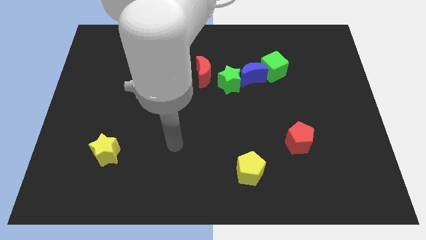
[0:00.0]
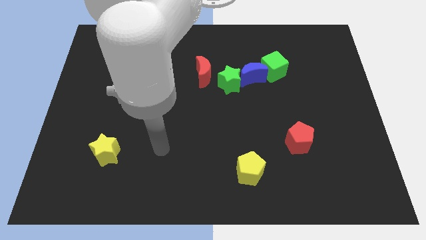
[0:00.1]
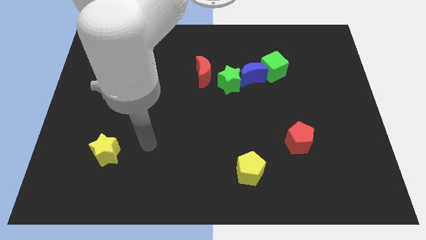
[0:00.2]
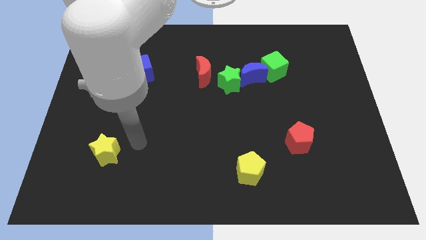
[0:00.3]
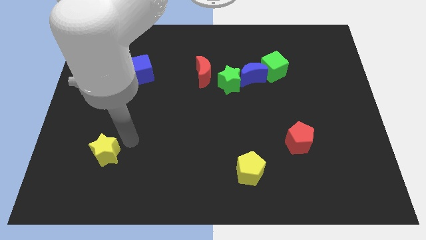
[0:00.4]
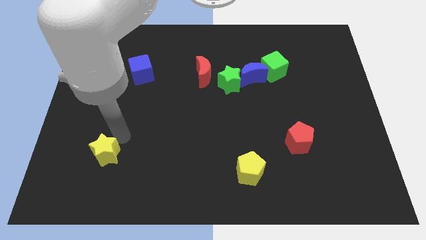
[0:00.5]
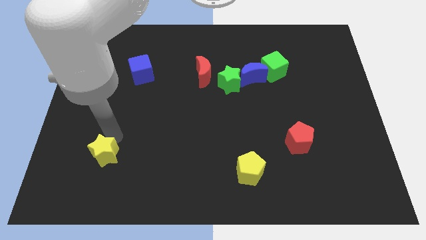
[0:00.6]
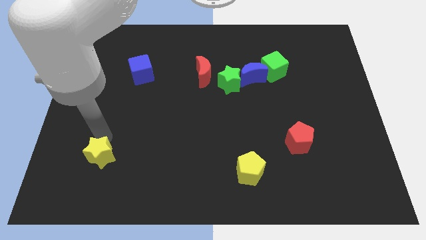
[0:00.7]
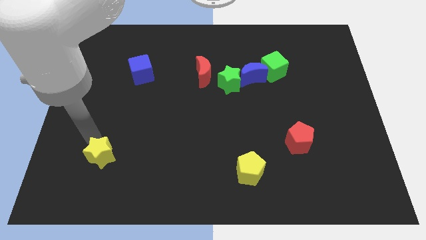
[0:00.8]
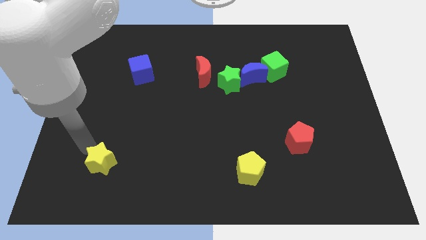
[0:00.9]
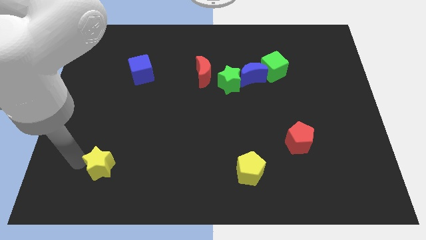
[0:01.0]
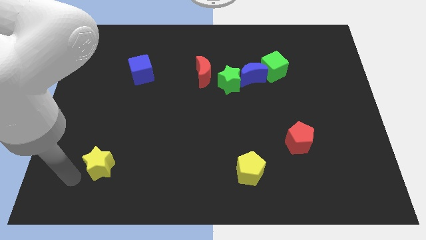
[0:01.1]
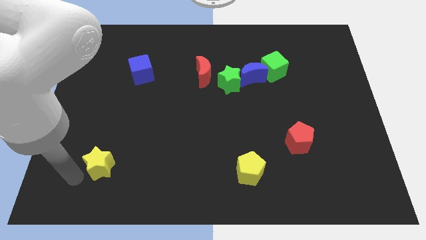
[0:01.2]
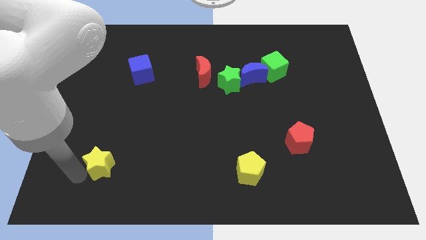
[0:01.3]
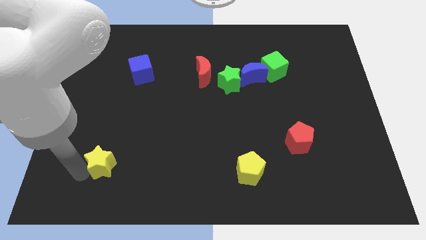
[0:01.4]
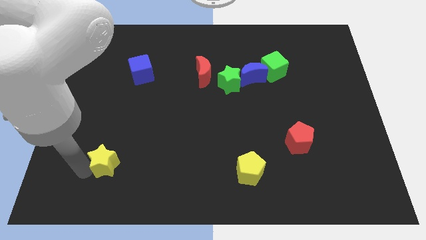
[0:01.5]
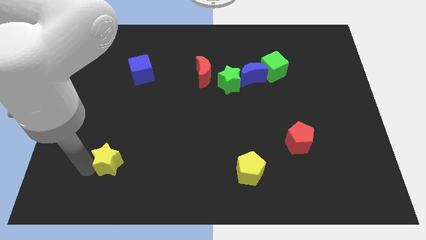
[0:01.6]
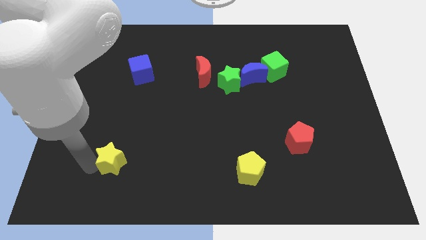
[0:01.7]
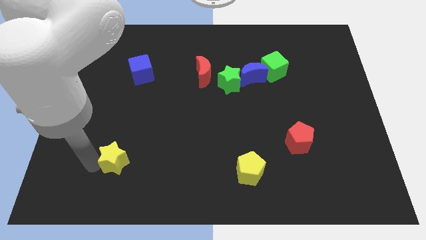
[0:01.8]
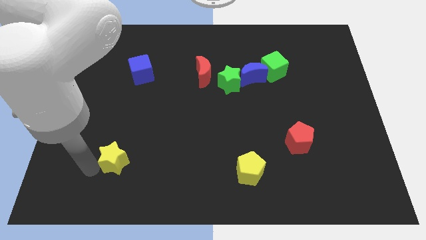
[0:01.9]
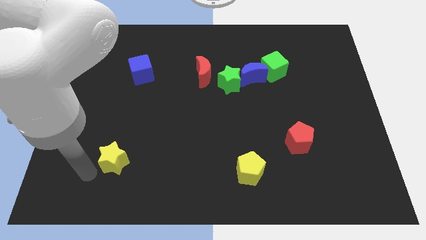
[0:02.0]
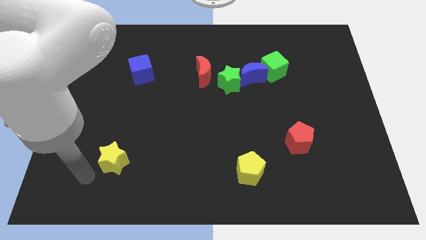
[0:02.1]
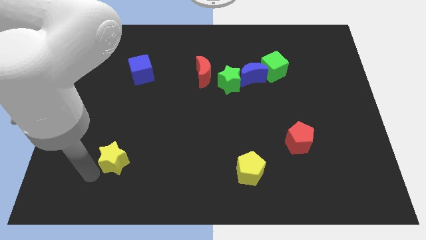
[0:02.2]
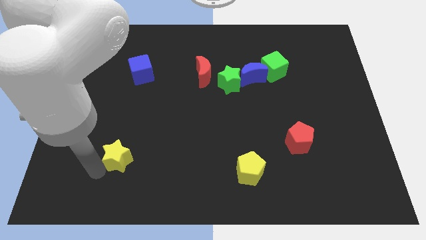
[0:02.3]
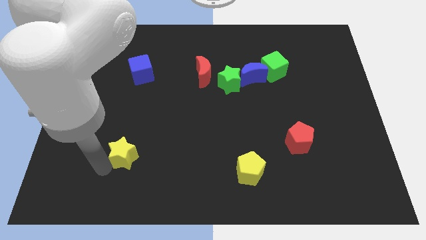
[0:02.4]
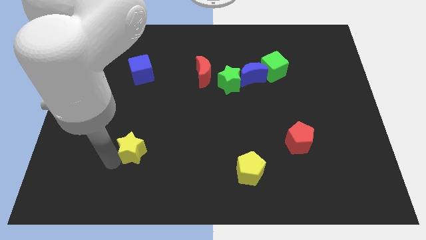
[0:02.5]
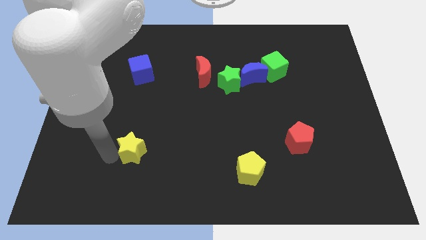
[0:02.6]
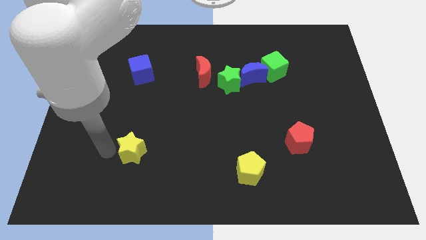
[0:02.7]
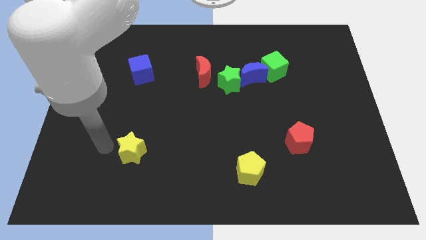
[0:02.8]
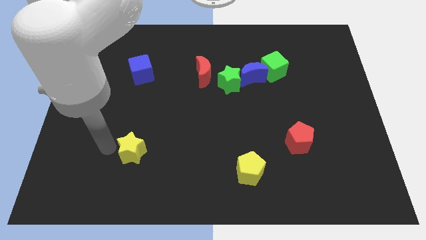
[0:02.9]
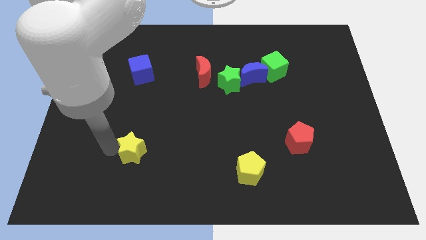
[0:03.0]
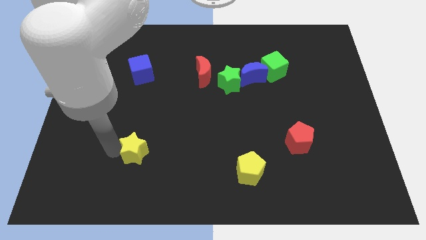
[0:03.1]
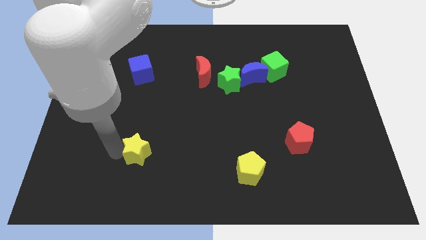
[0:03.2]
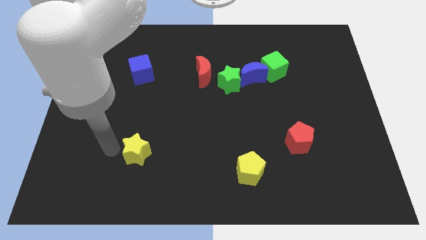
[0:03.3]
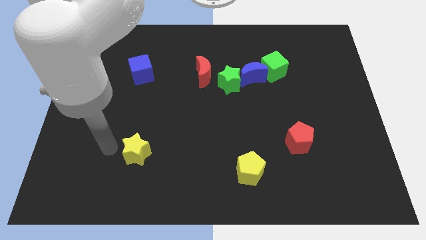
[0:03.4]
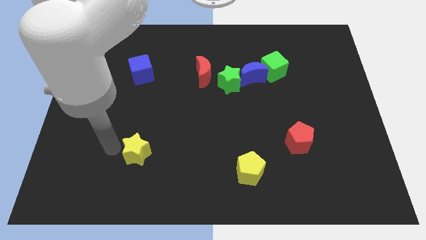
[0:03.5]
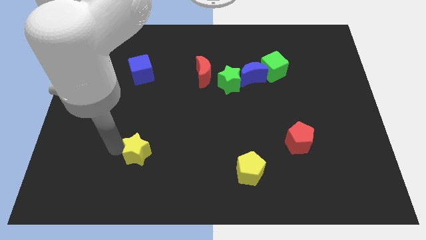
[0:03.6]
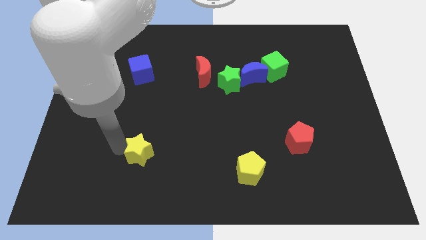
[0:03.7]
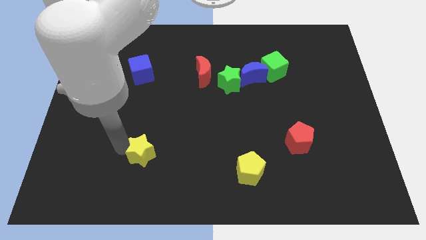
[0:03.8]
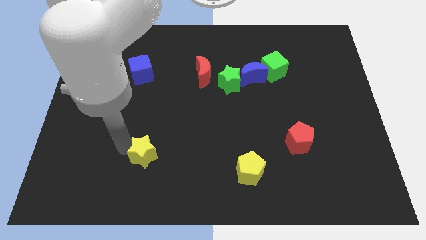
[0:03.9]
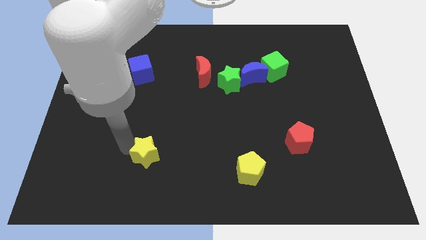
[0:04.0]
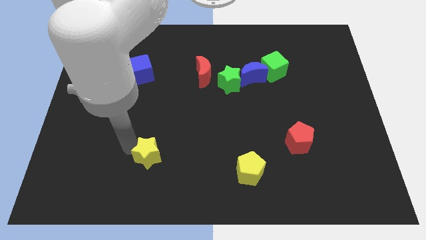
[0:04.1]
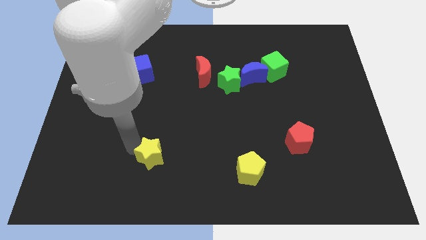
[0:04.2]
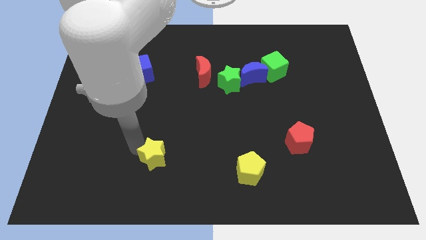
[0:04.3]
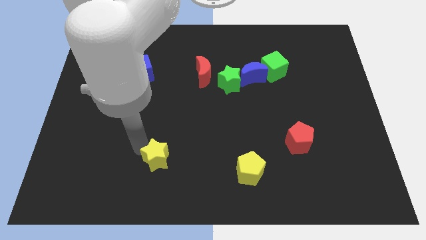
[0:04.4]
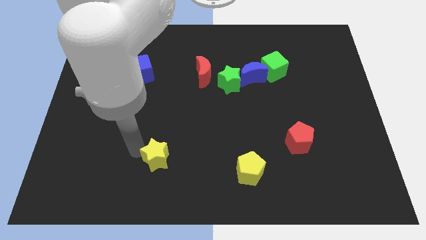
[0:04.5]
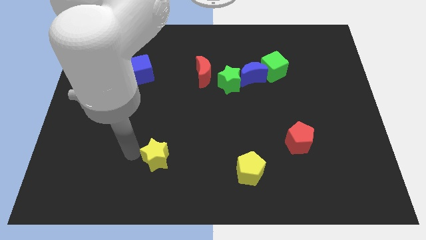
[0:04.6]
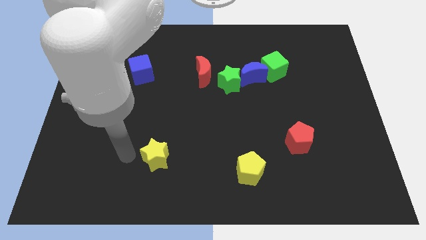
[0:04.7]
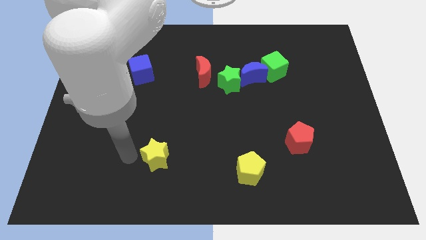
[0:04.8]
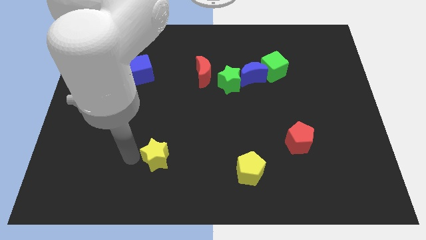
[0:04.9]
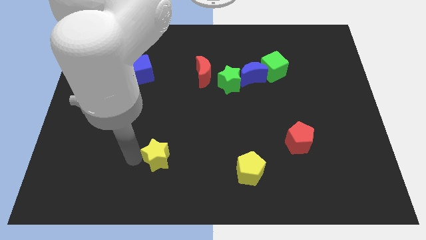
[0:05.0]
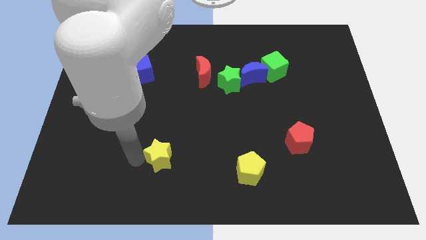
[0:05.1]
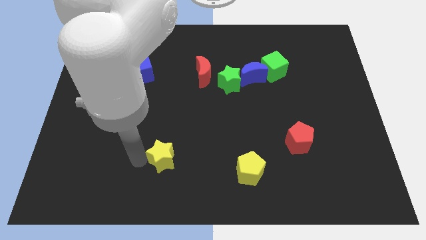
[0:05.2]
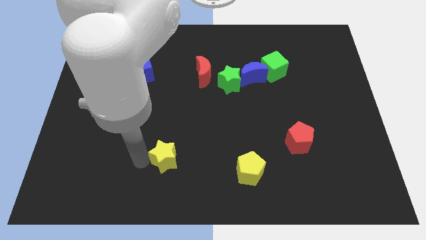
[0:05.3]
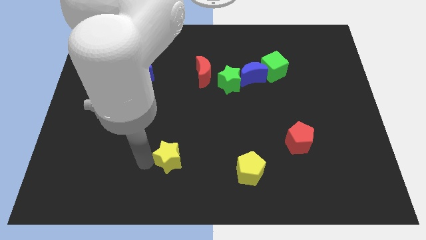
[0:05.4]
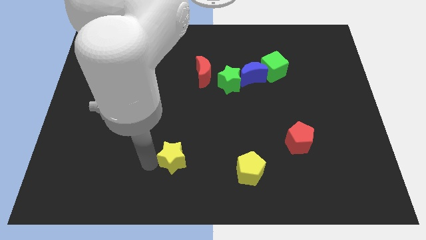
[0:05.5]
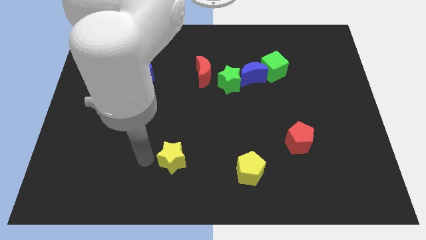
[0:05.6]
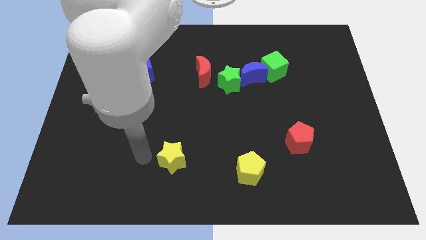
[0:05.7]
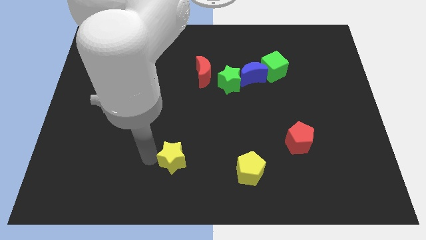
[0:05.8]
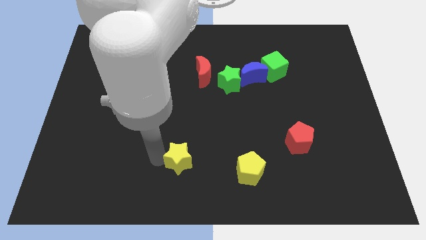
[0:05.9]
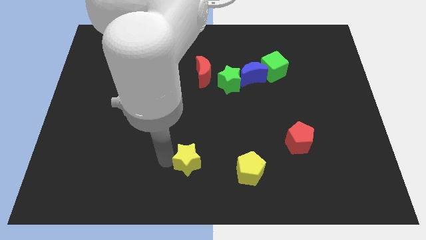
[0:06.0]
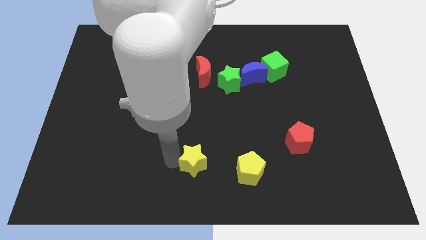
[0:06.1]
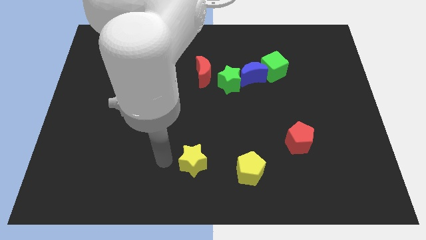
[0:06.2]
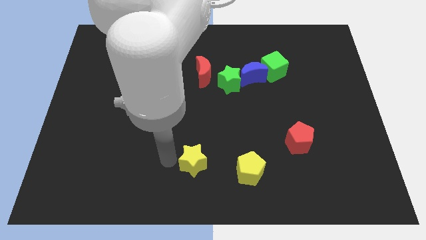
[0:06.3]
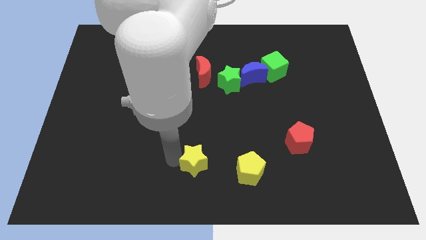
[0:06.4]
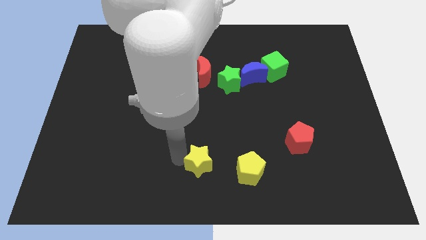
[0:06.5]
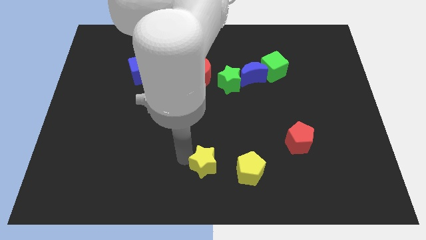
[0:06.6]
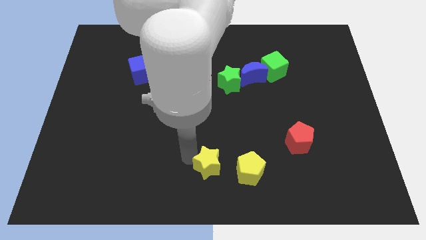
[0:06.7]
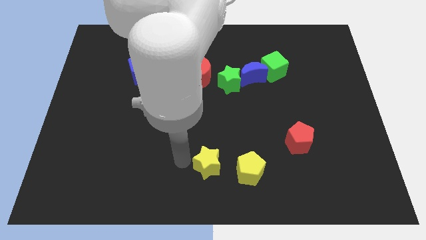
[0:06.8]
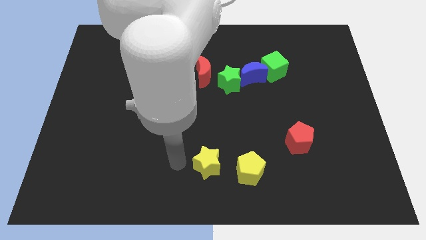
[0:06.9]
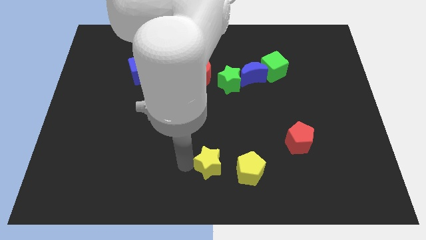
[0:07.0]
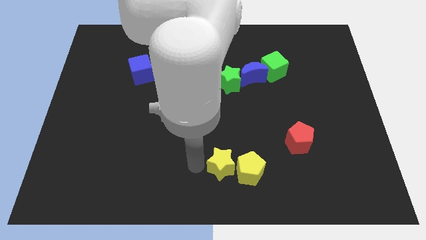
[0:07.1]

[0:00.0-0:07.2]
push the yellow star close to the yellow pentagon

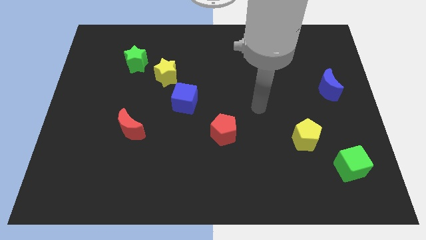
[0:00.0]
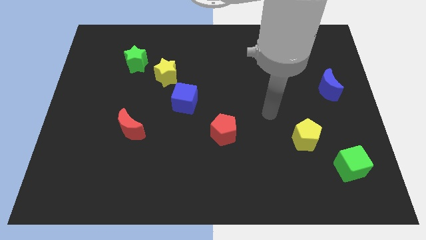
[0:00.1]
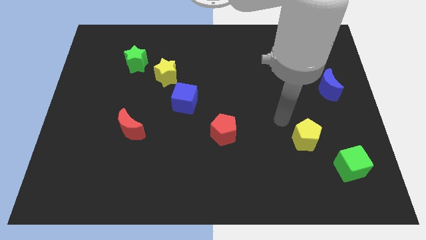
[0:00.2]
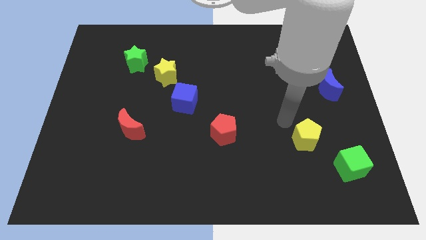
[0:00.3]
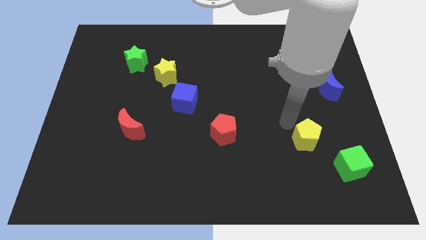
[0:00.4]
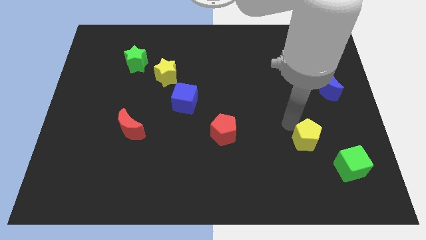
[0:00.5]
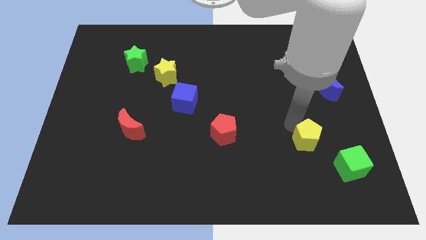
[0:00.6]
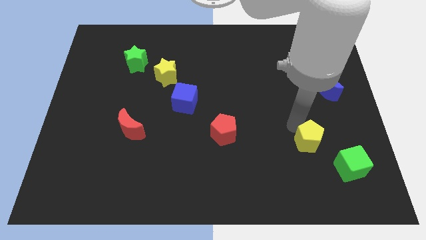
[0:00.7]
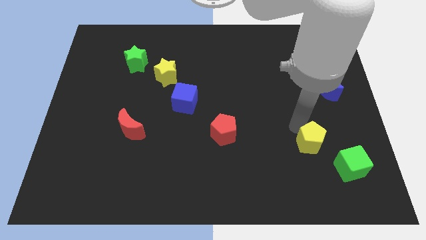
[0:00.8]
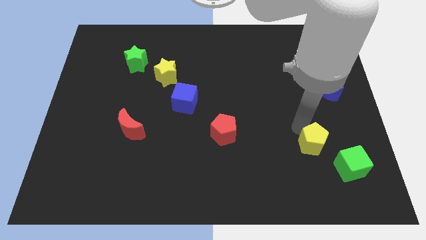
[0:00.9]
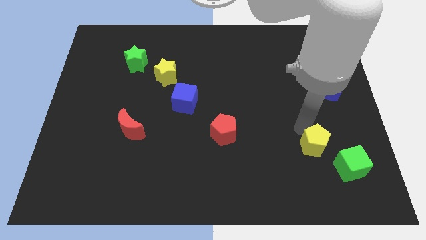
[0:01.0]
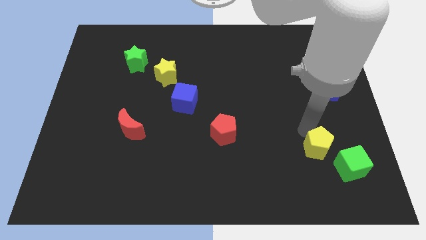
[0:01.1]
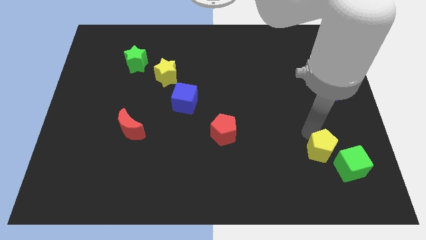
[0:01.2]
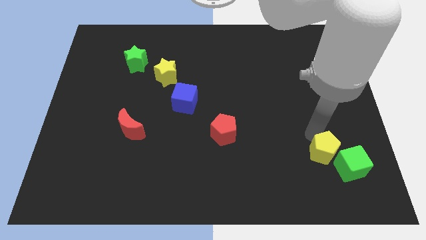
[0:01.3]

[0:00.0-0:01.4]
move the yellow pentagon to the green cube
